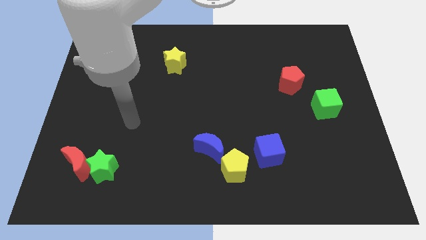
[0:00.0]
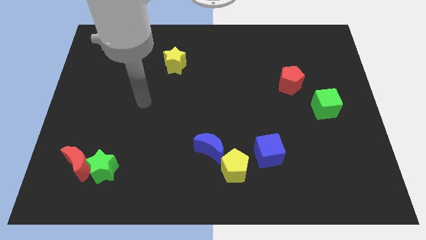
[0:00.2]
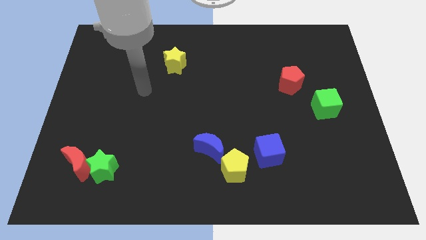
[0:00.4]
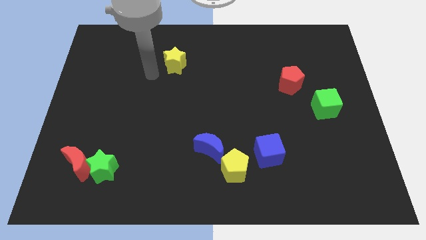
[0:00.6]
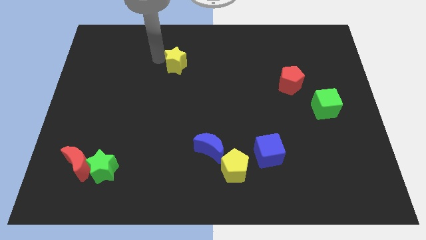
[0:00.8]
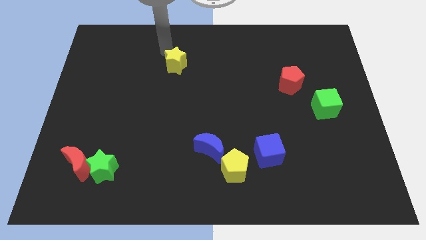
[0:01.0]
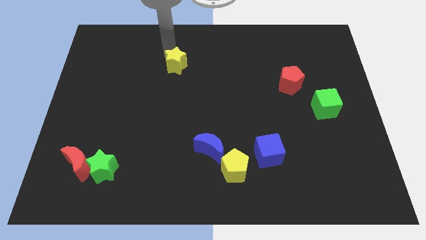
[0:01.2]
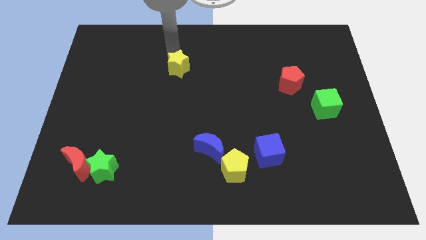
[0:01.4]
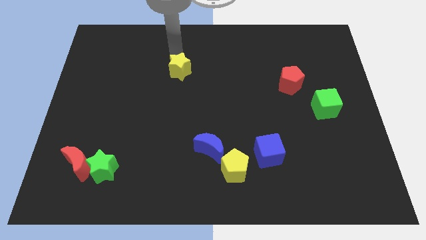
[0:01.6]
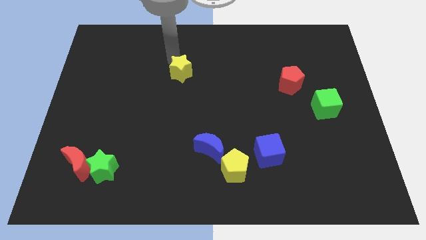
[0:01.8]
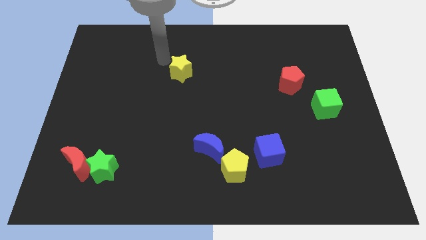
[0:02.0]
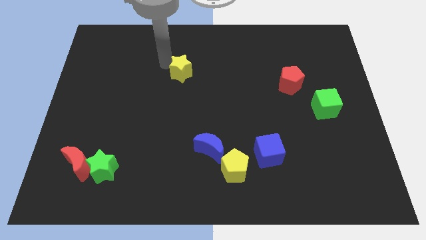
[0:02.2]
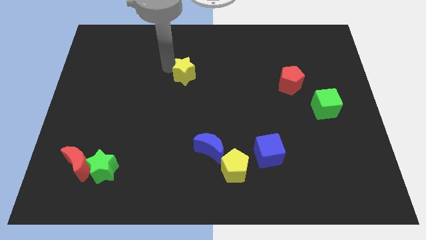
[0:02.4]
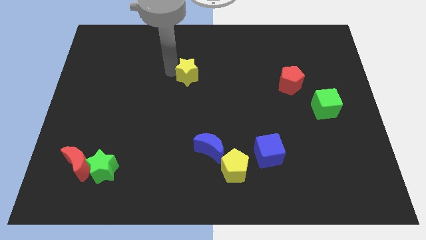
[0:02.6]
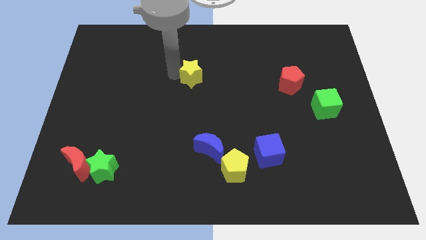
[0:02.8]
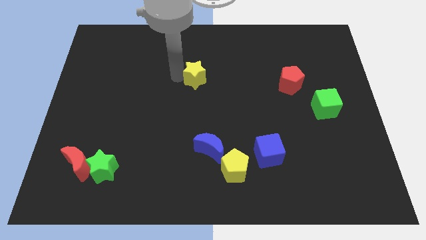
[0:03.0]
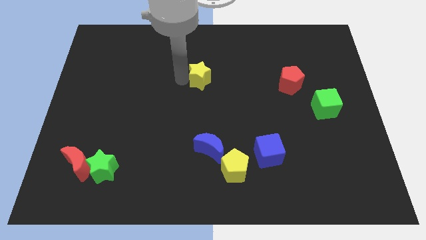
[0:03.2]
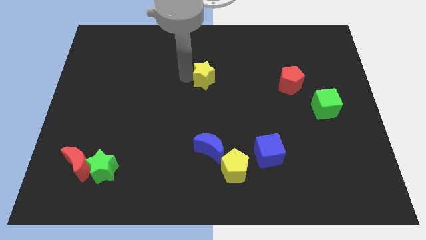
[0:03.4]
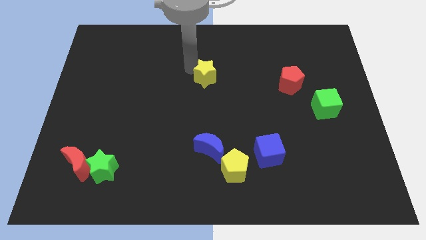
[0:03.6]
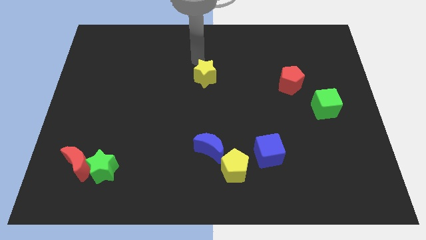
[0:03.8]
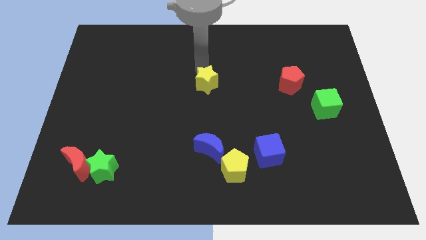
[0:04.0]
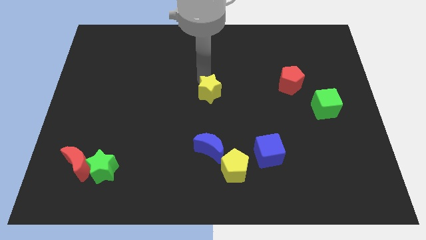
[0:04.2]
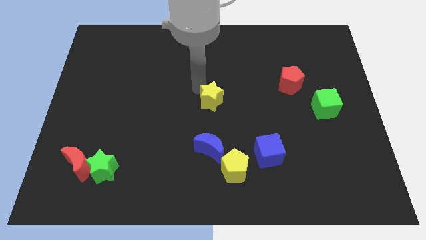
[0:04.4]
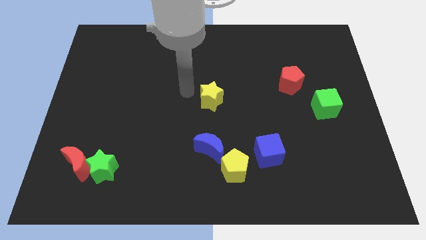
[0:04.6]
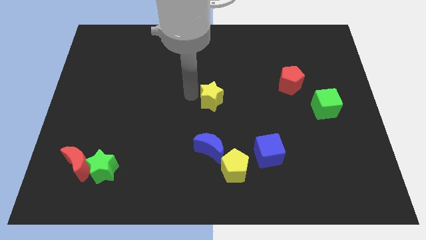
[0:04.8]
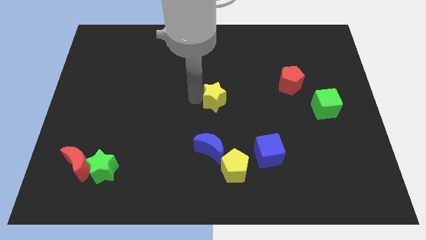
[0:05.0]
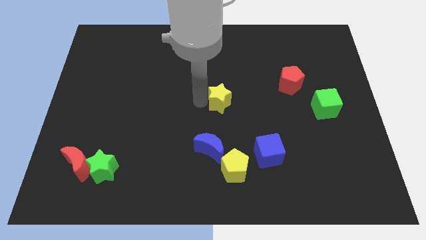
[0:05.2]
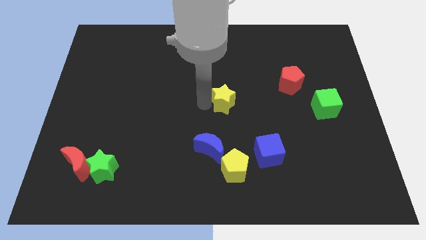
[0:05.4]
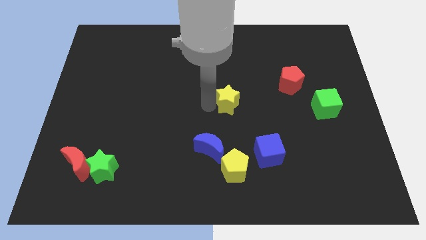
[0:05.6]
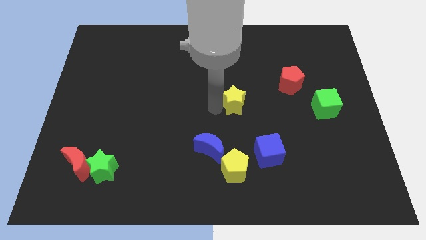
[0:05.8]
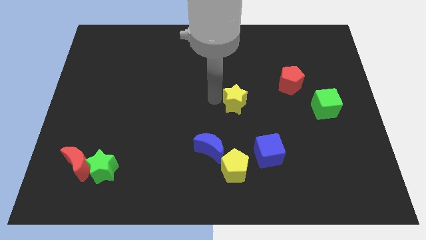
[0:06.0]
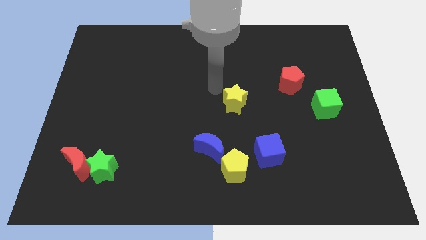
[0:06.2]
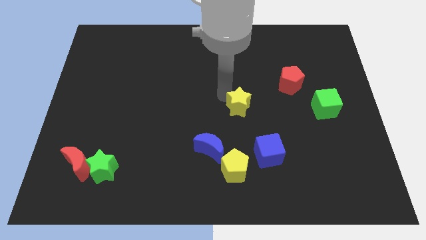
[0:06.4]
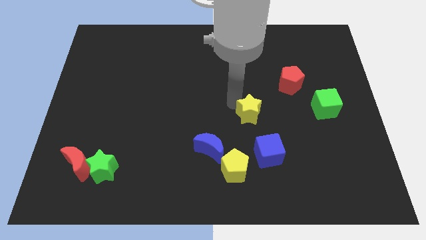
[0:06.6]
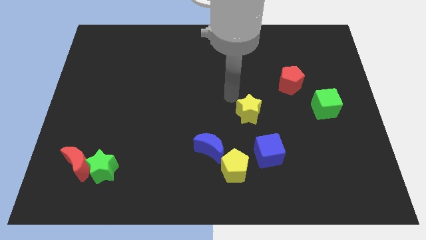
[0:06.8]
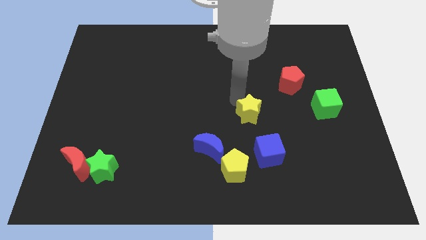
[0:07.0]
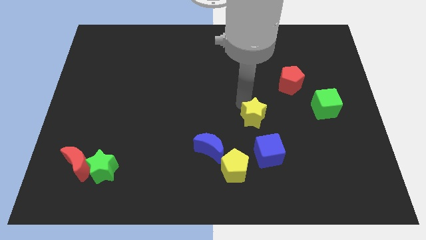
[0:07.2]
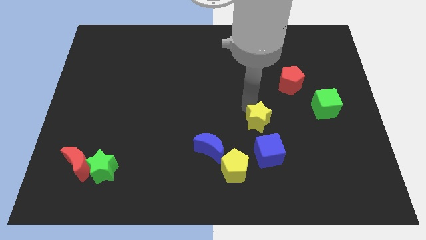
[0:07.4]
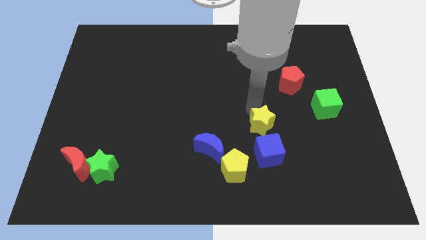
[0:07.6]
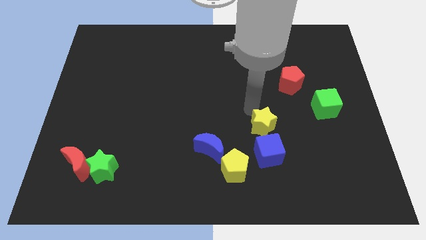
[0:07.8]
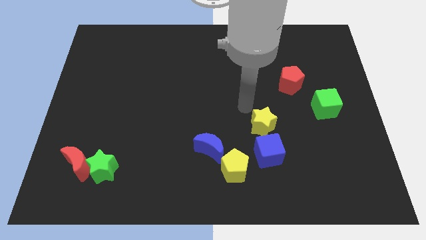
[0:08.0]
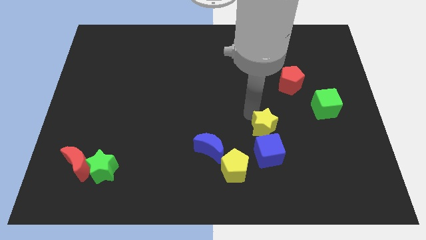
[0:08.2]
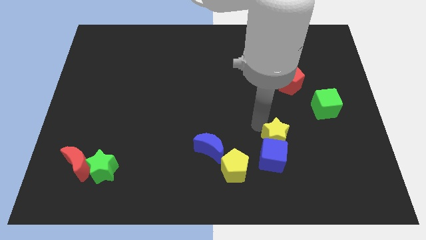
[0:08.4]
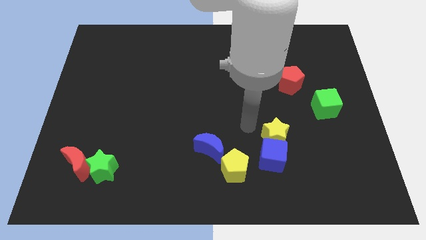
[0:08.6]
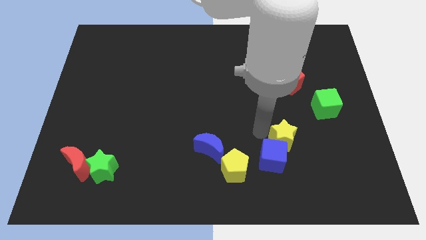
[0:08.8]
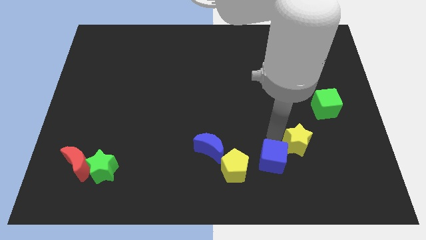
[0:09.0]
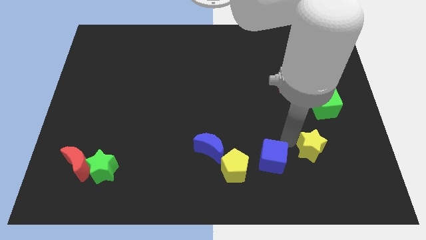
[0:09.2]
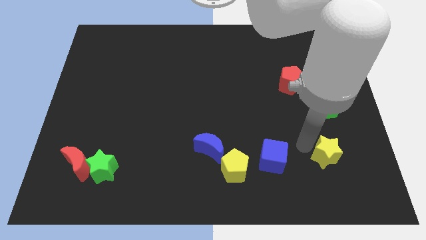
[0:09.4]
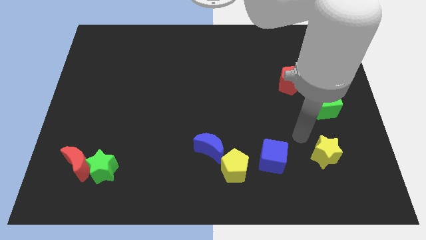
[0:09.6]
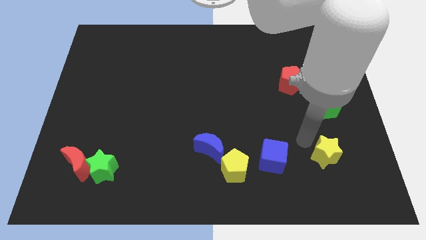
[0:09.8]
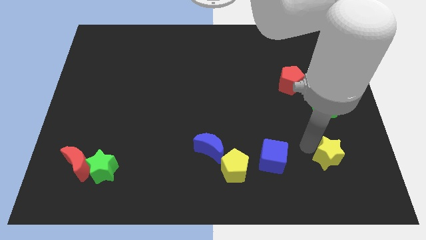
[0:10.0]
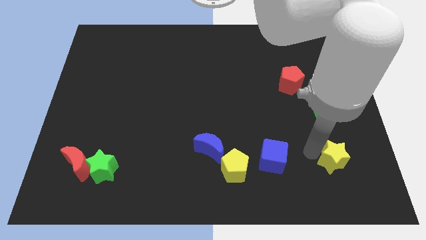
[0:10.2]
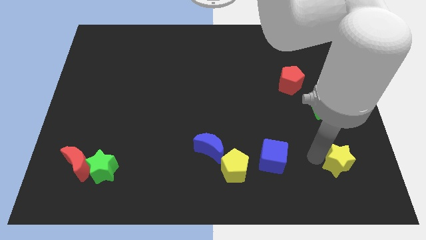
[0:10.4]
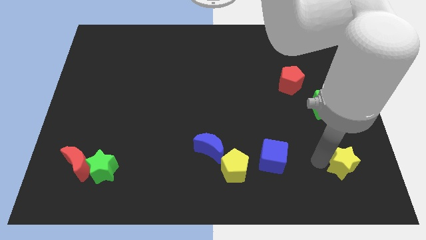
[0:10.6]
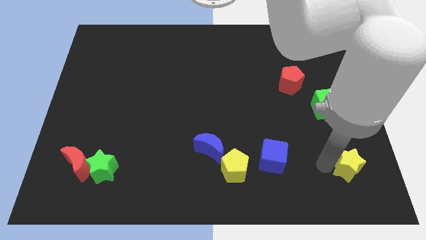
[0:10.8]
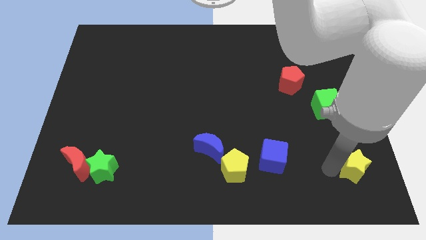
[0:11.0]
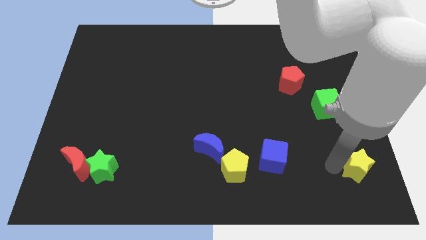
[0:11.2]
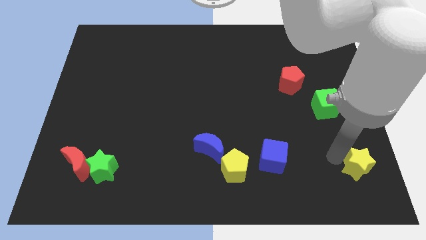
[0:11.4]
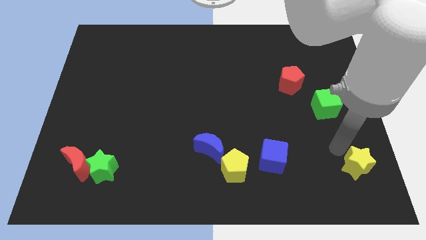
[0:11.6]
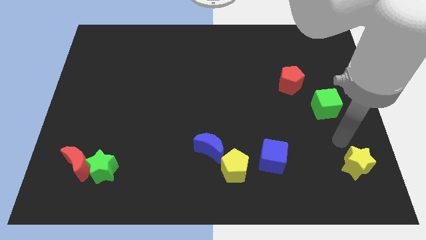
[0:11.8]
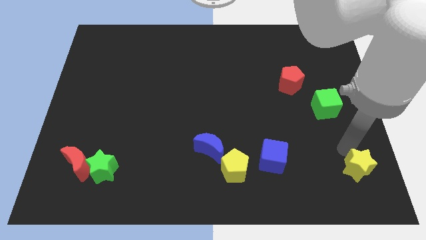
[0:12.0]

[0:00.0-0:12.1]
slide the yellow star to the bottom right of the board

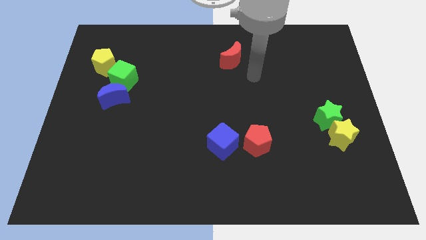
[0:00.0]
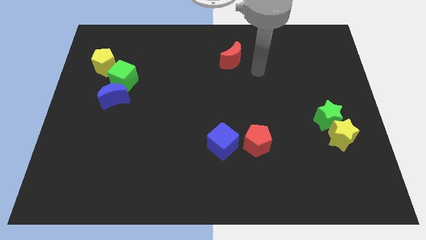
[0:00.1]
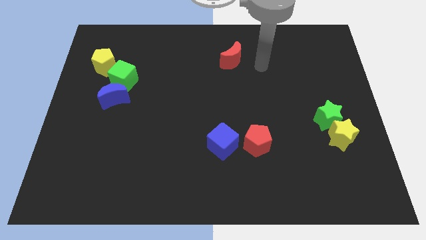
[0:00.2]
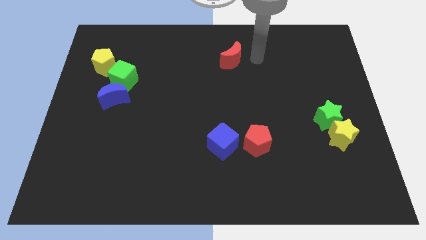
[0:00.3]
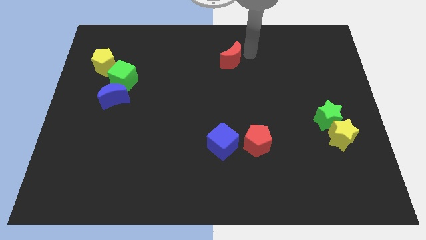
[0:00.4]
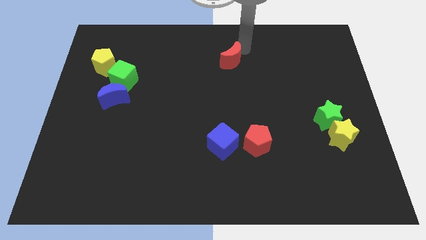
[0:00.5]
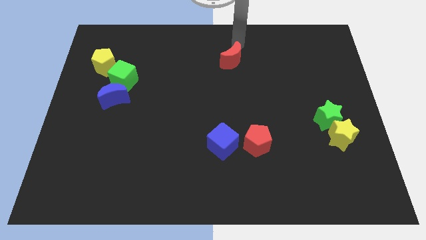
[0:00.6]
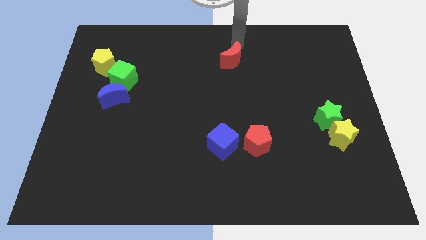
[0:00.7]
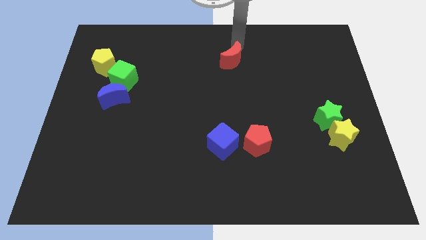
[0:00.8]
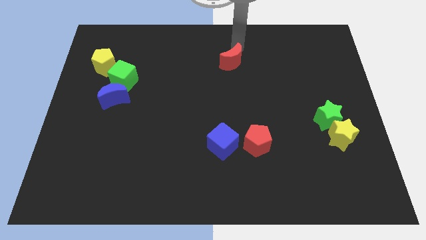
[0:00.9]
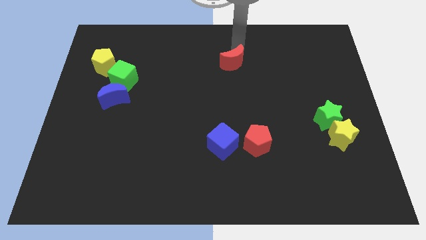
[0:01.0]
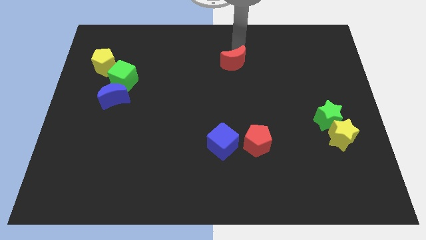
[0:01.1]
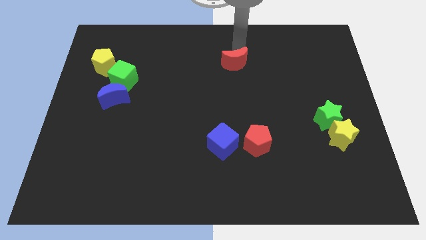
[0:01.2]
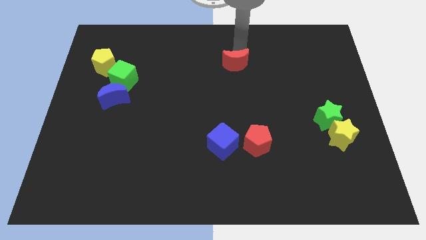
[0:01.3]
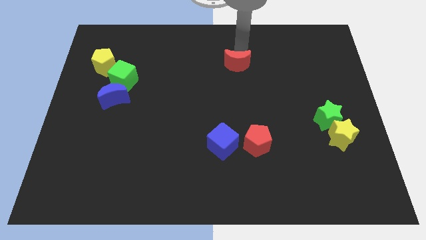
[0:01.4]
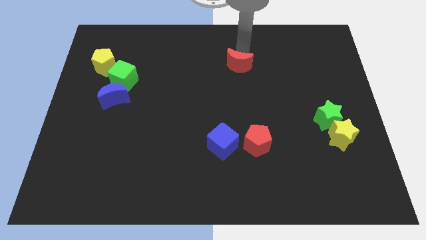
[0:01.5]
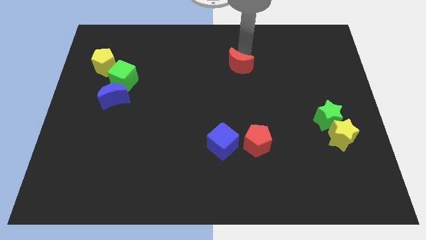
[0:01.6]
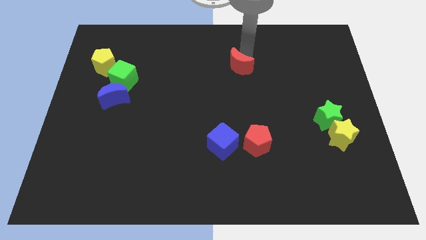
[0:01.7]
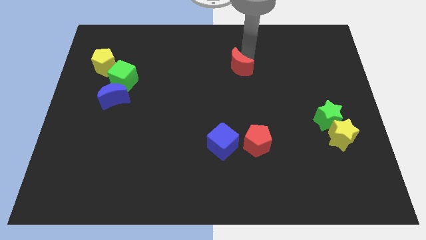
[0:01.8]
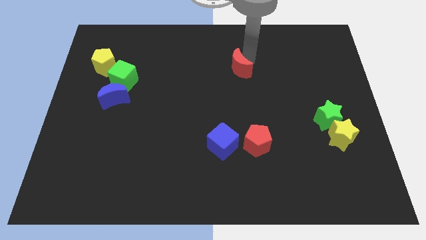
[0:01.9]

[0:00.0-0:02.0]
move the red moon to the center
